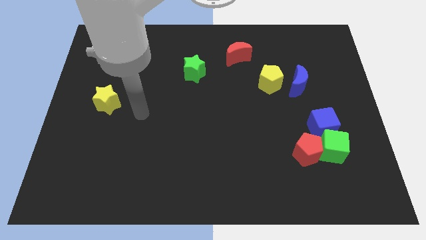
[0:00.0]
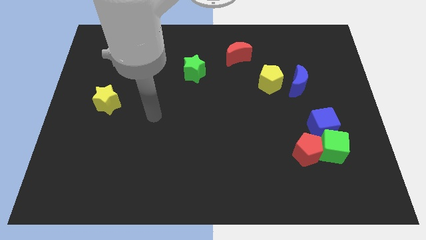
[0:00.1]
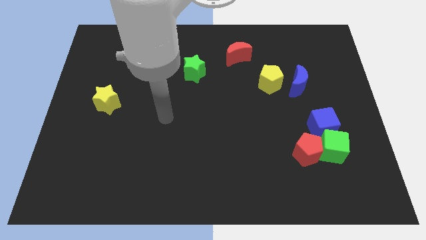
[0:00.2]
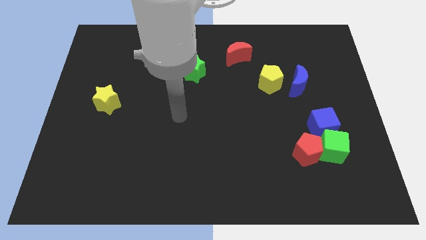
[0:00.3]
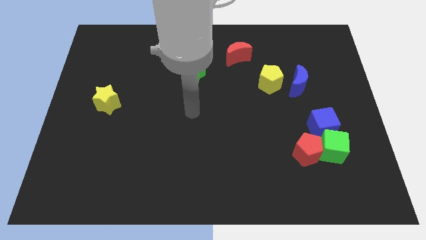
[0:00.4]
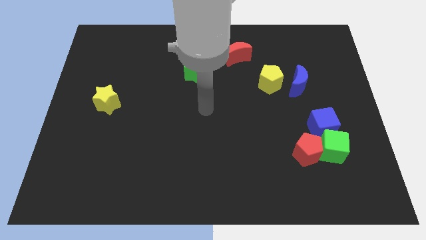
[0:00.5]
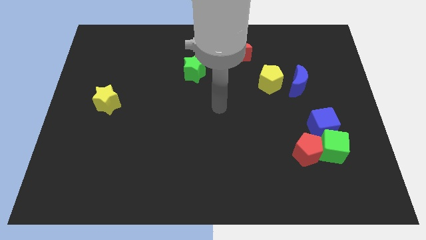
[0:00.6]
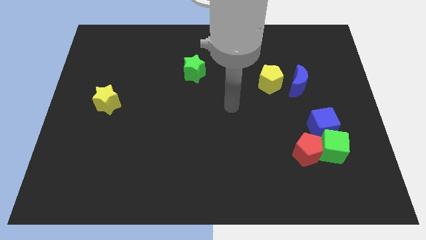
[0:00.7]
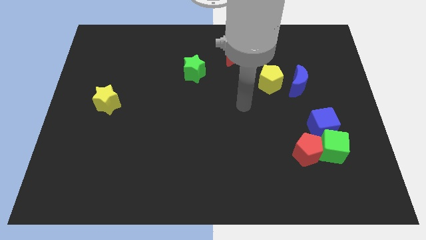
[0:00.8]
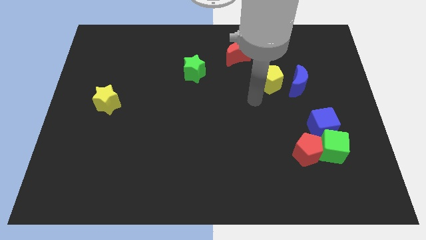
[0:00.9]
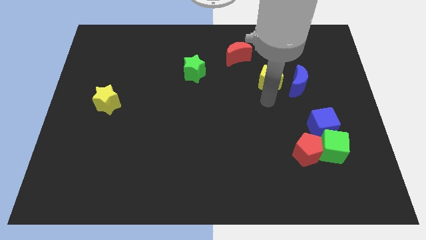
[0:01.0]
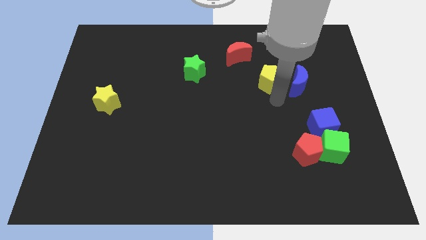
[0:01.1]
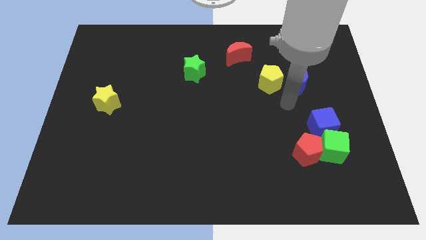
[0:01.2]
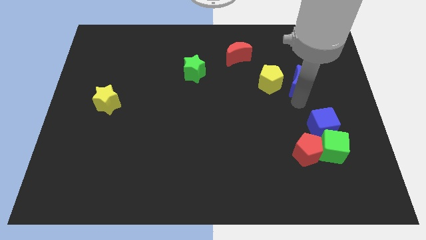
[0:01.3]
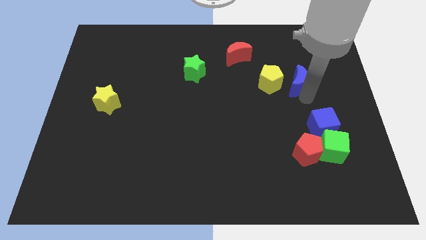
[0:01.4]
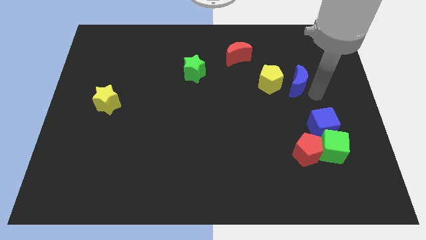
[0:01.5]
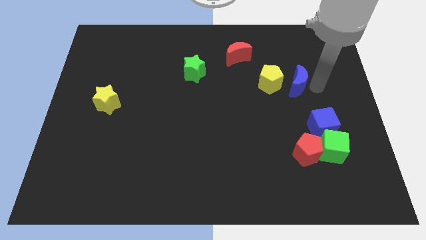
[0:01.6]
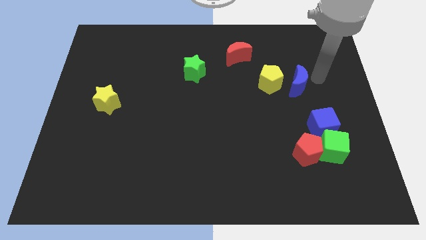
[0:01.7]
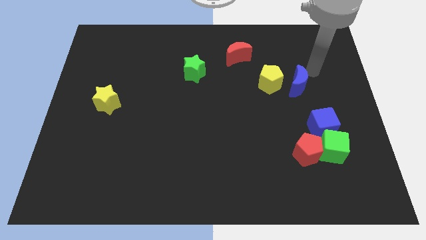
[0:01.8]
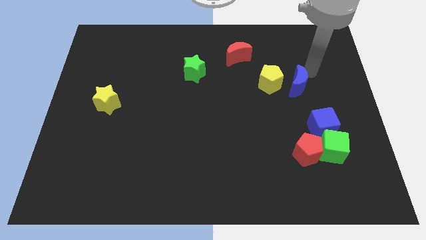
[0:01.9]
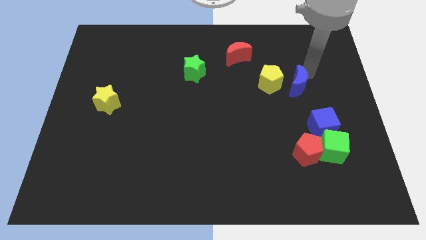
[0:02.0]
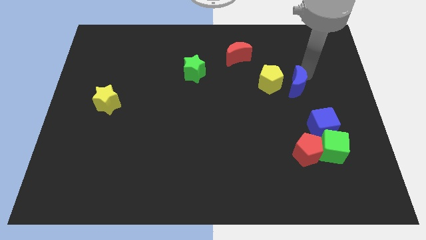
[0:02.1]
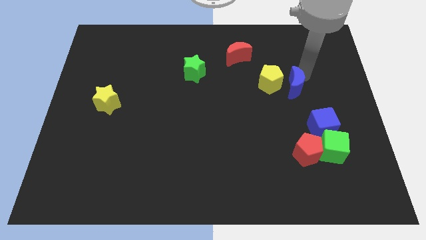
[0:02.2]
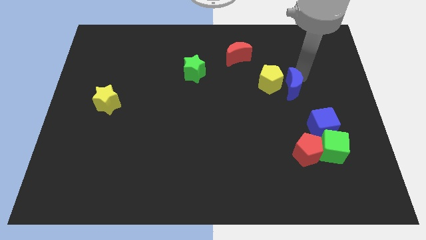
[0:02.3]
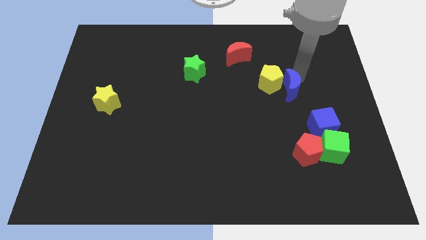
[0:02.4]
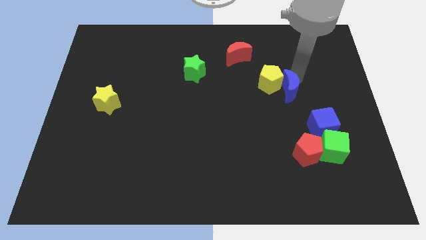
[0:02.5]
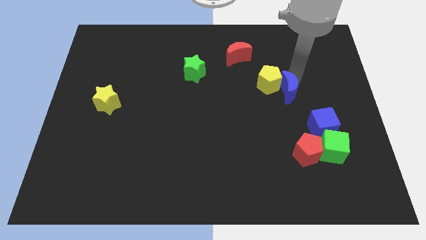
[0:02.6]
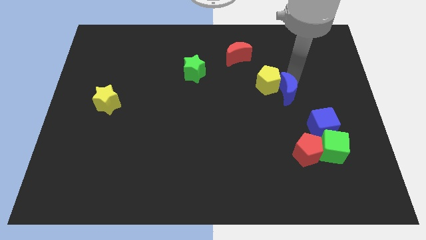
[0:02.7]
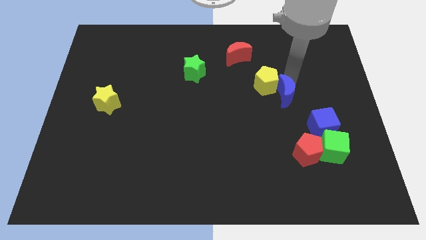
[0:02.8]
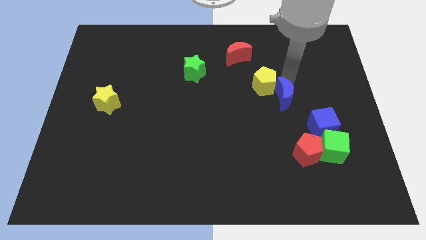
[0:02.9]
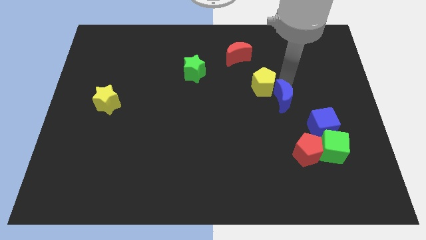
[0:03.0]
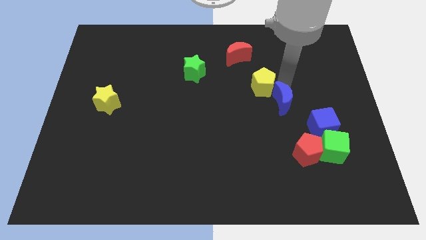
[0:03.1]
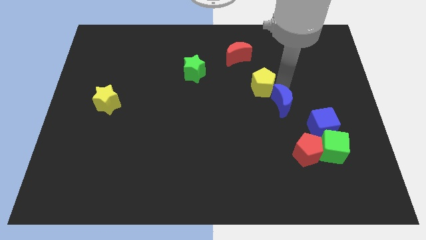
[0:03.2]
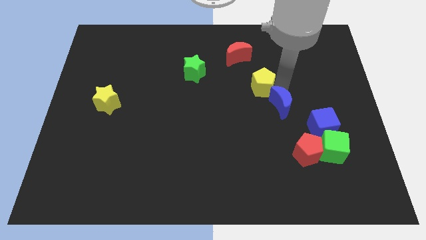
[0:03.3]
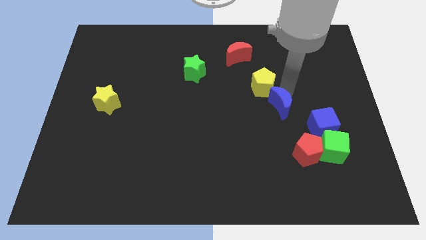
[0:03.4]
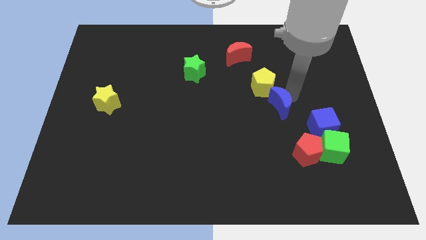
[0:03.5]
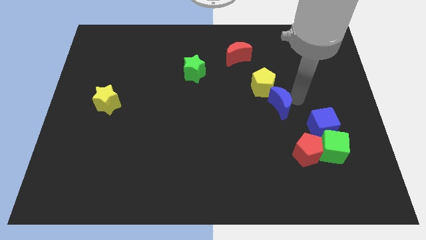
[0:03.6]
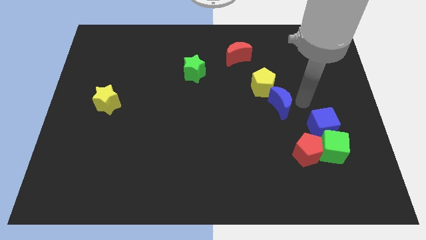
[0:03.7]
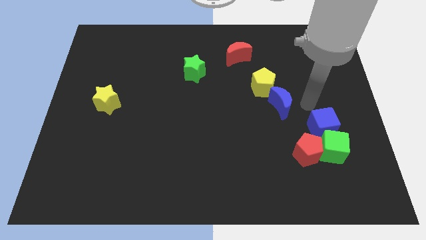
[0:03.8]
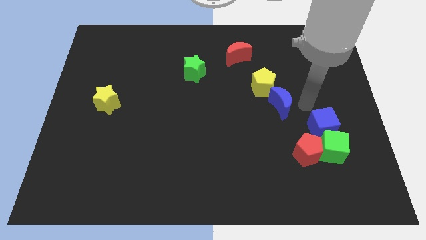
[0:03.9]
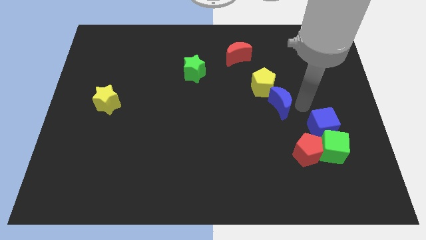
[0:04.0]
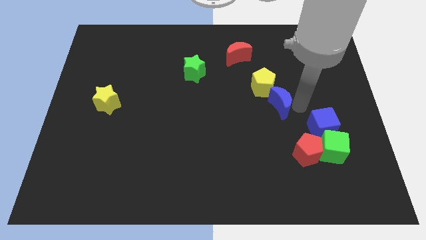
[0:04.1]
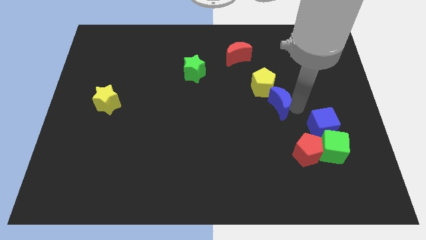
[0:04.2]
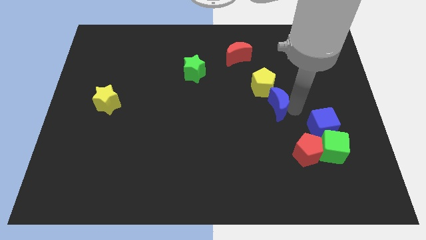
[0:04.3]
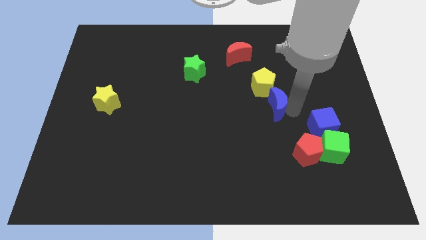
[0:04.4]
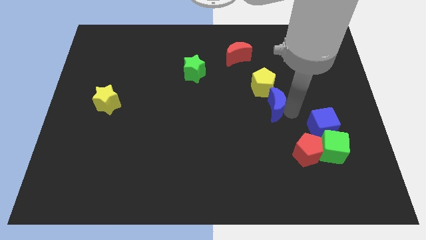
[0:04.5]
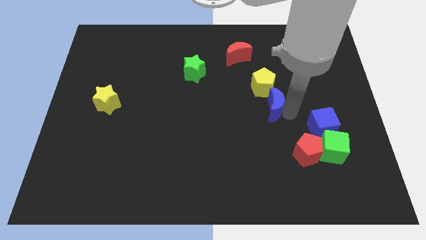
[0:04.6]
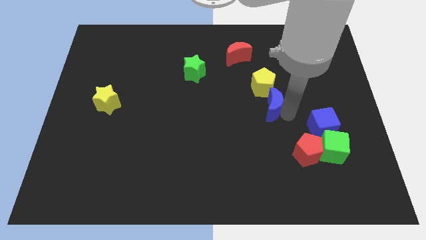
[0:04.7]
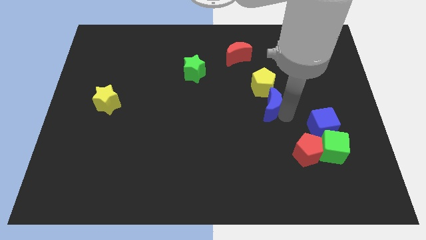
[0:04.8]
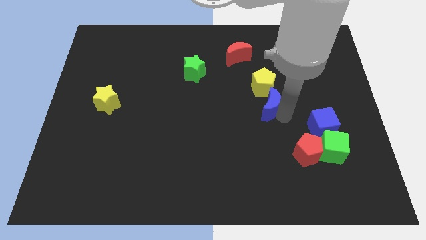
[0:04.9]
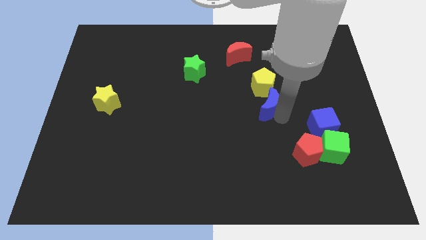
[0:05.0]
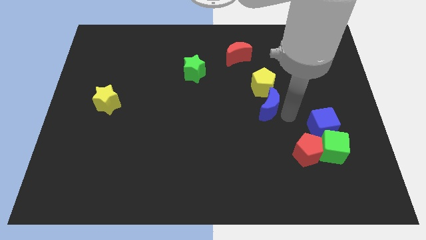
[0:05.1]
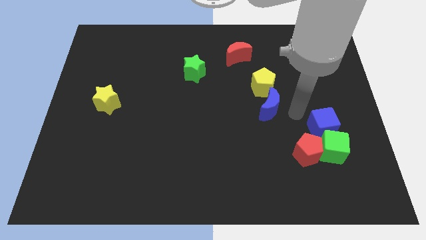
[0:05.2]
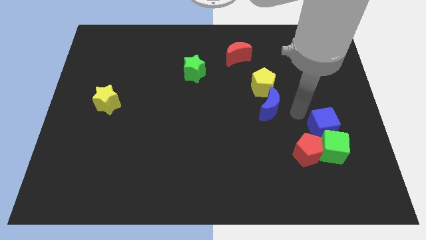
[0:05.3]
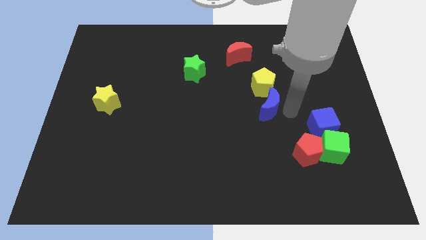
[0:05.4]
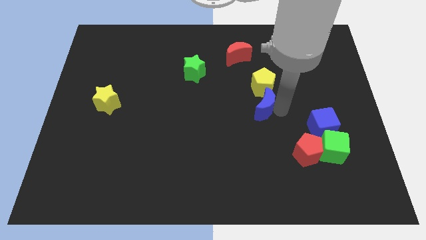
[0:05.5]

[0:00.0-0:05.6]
move the blue moon to the center

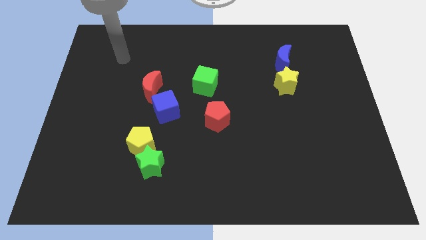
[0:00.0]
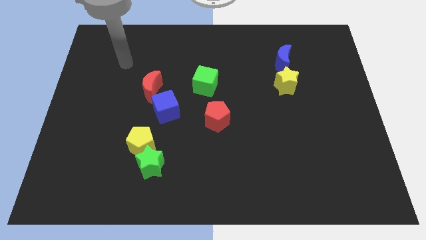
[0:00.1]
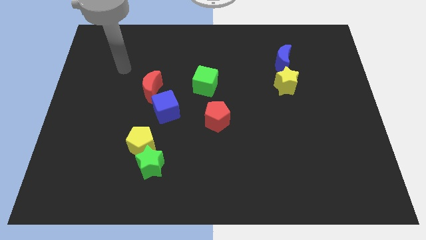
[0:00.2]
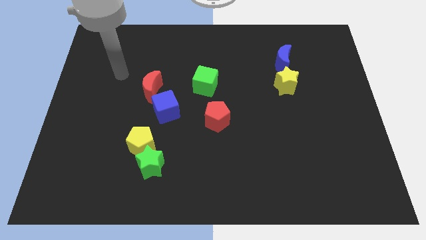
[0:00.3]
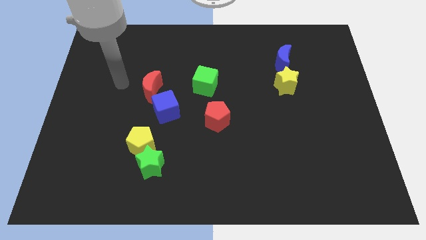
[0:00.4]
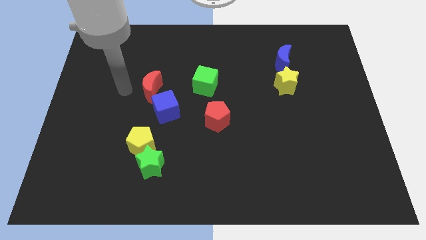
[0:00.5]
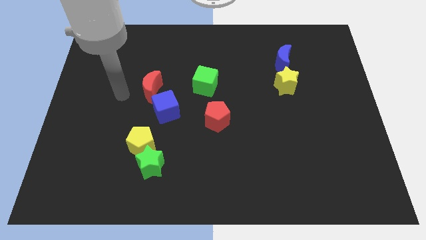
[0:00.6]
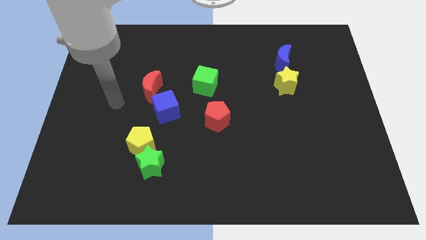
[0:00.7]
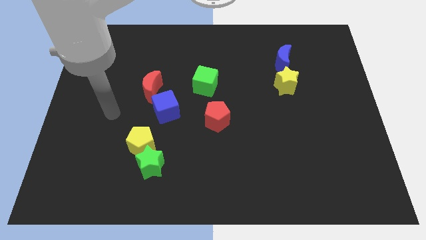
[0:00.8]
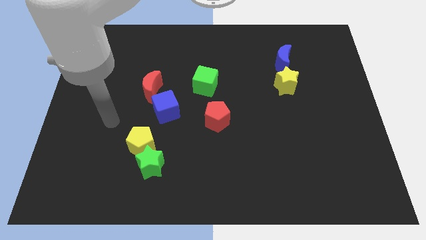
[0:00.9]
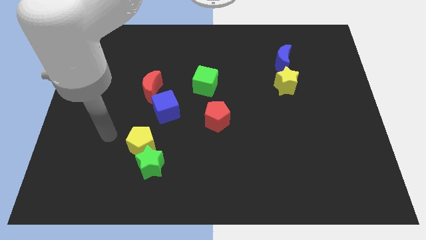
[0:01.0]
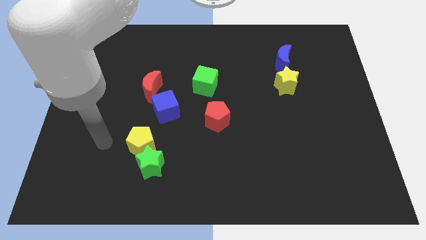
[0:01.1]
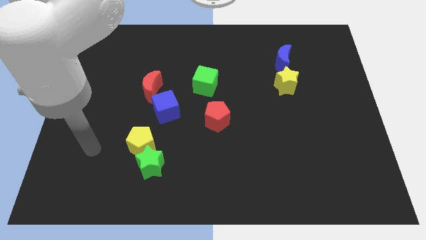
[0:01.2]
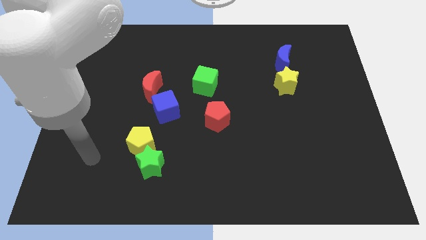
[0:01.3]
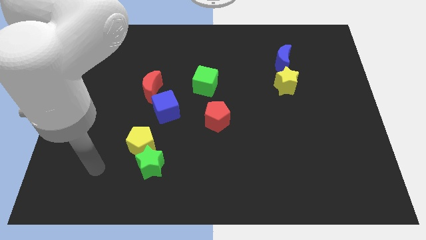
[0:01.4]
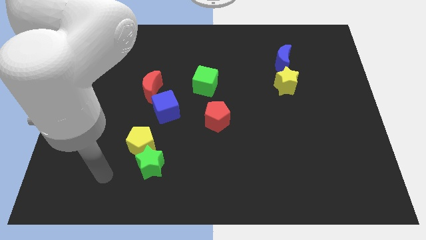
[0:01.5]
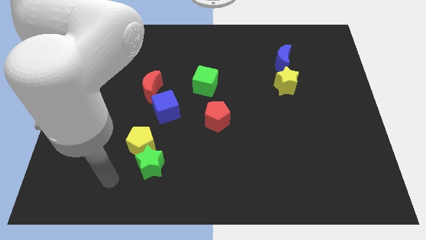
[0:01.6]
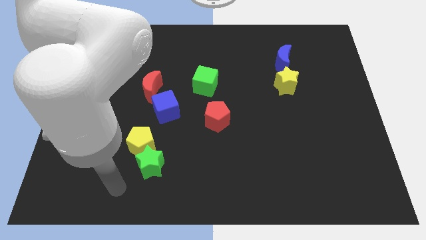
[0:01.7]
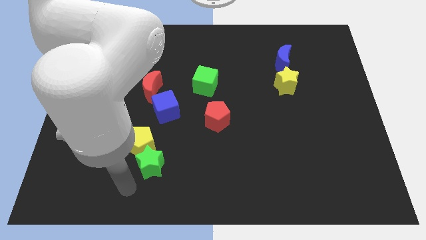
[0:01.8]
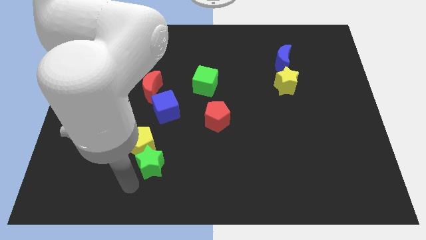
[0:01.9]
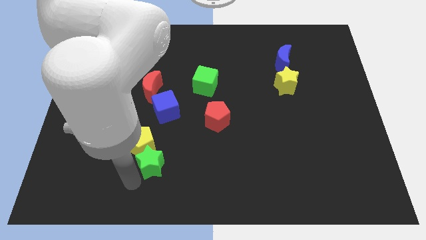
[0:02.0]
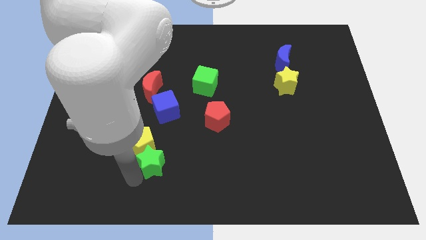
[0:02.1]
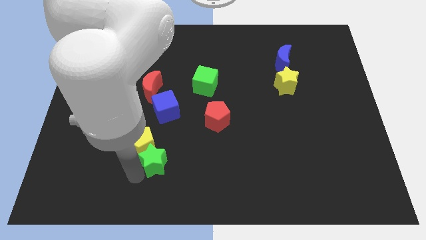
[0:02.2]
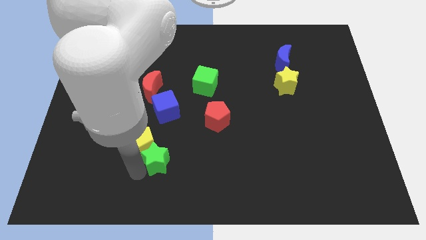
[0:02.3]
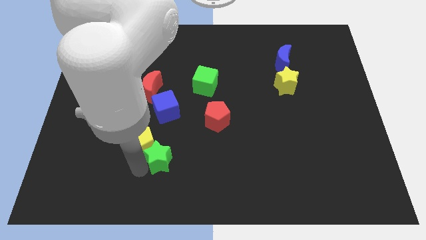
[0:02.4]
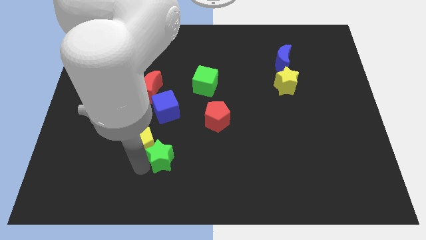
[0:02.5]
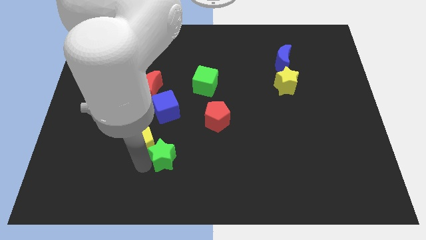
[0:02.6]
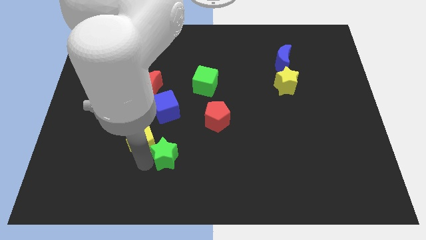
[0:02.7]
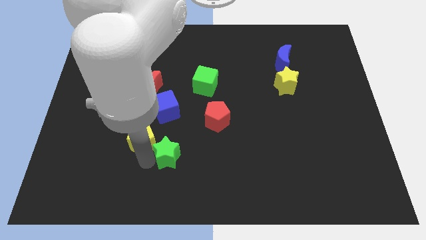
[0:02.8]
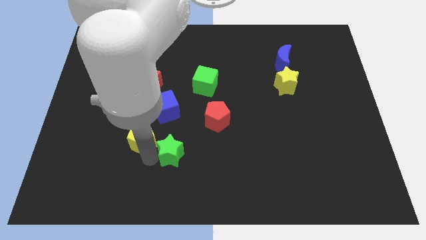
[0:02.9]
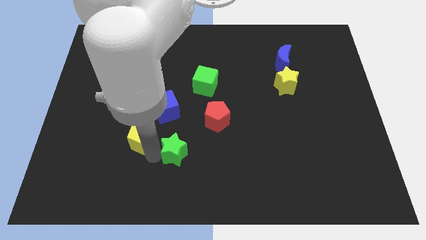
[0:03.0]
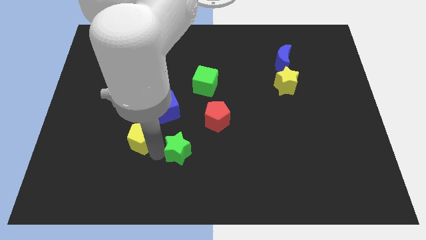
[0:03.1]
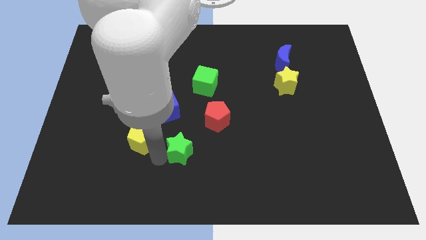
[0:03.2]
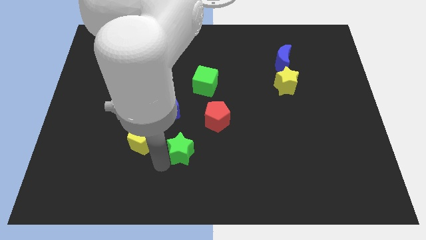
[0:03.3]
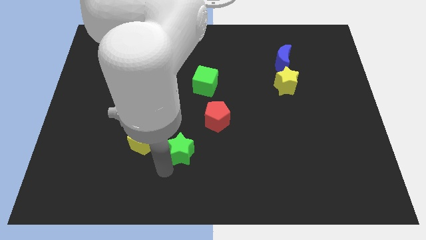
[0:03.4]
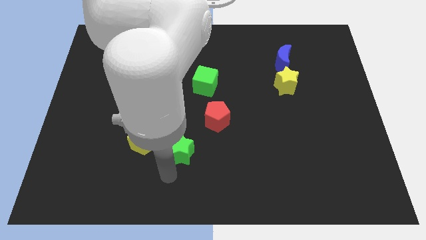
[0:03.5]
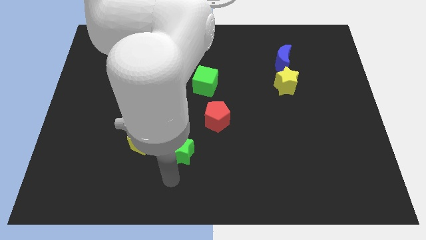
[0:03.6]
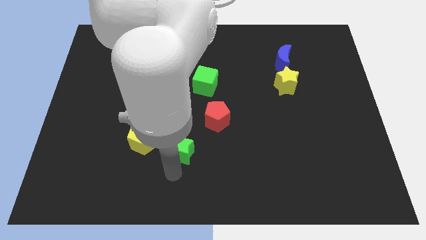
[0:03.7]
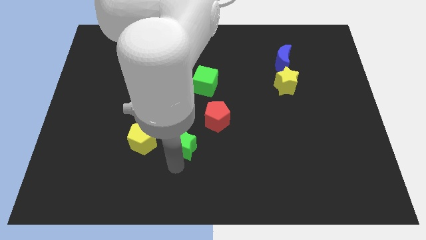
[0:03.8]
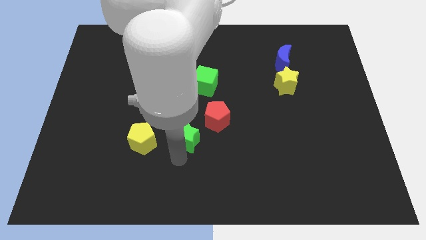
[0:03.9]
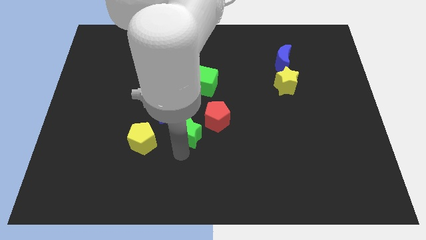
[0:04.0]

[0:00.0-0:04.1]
move the green star to the center of the board
